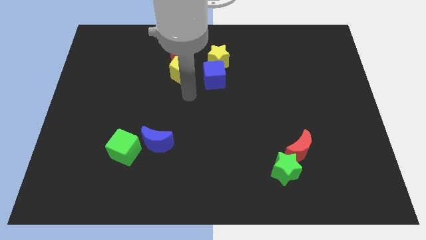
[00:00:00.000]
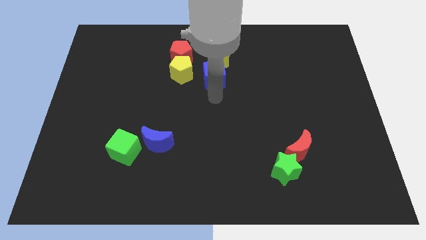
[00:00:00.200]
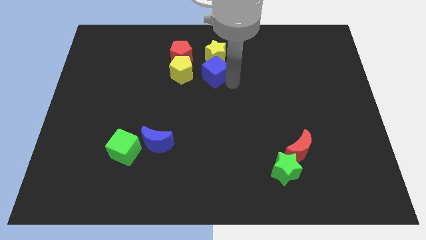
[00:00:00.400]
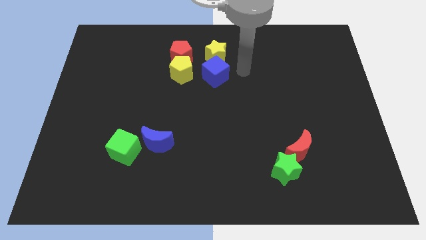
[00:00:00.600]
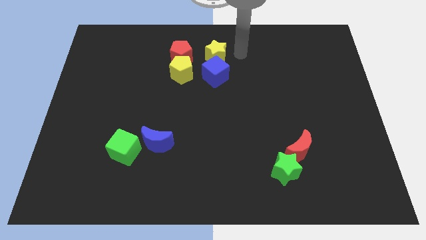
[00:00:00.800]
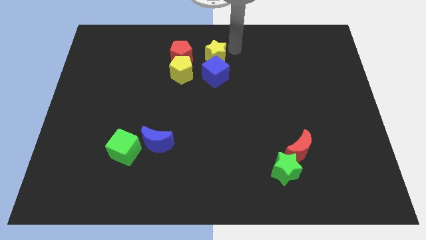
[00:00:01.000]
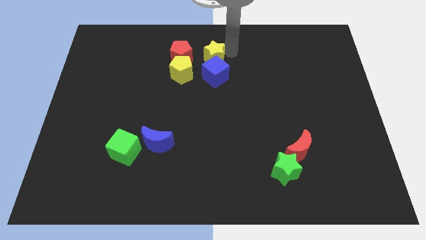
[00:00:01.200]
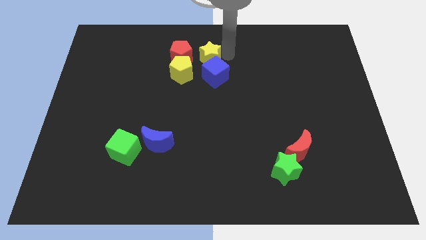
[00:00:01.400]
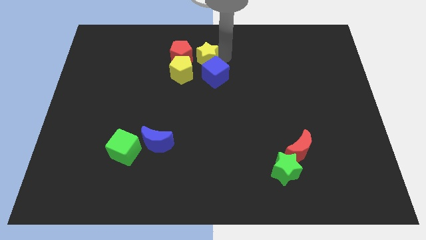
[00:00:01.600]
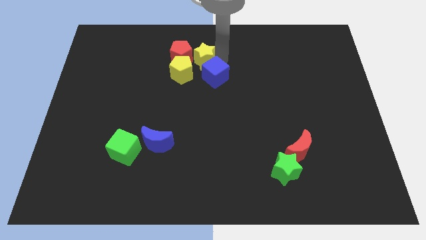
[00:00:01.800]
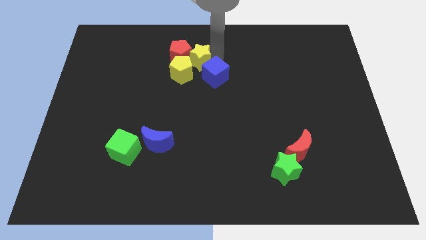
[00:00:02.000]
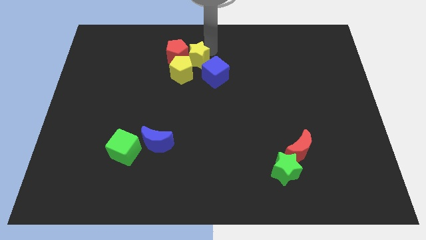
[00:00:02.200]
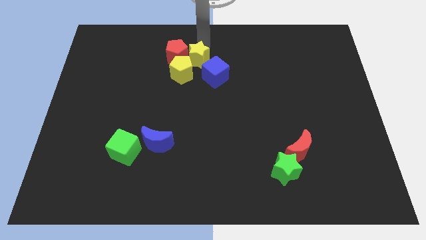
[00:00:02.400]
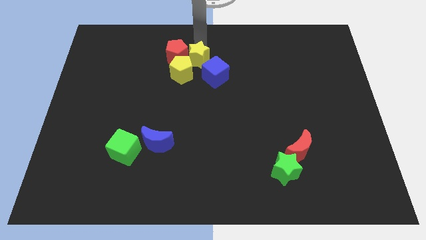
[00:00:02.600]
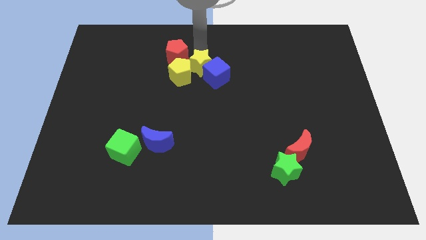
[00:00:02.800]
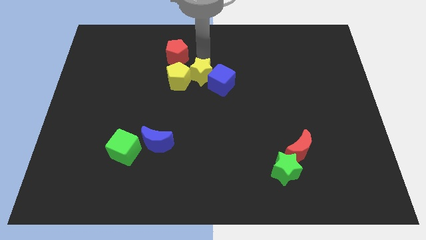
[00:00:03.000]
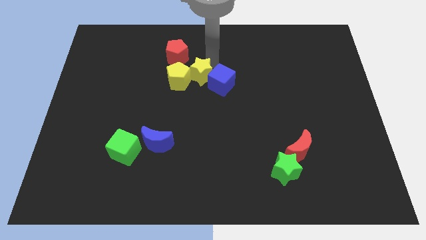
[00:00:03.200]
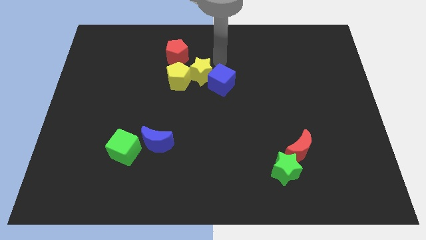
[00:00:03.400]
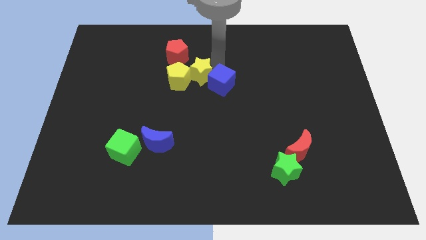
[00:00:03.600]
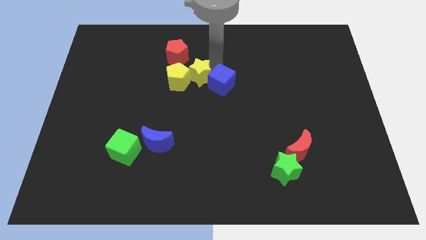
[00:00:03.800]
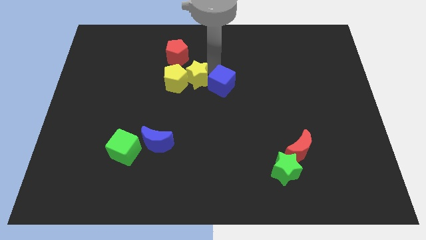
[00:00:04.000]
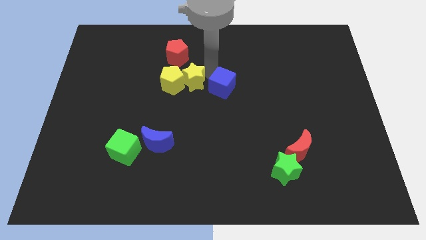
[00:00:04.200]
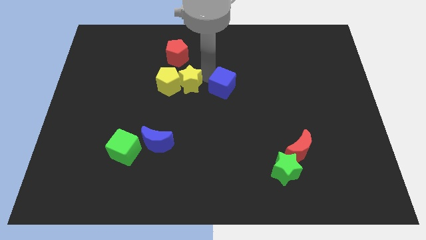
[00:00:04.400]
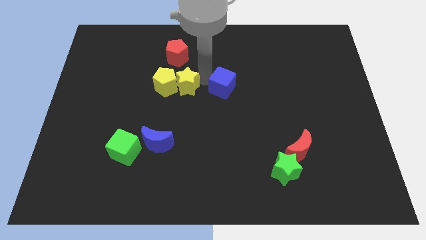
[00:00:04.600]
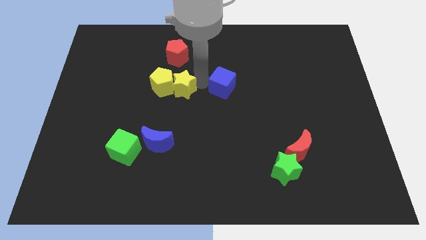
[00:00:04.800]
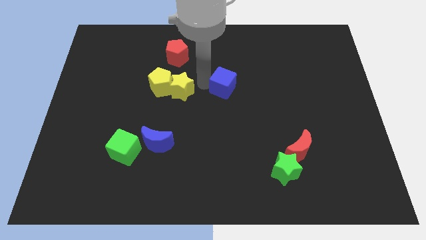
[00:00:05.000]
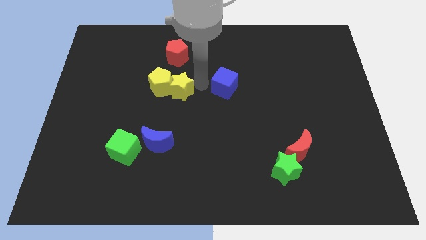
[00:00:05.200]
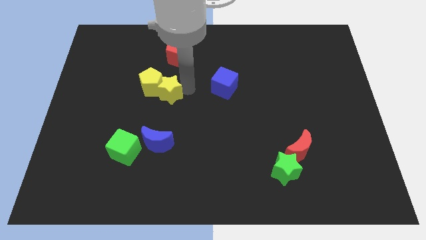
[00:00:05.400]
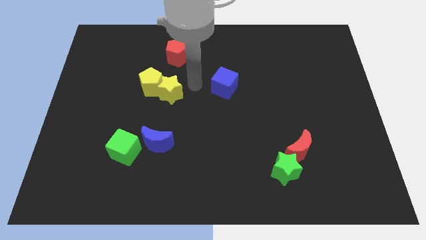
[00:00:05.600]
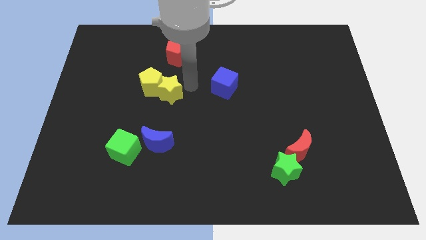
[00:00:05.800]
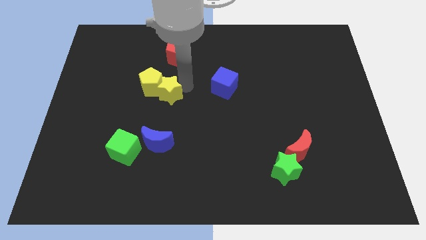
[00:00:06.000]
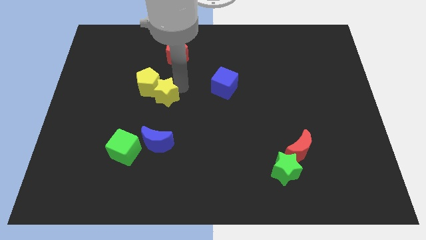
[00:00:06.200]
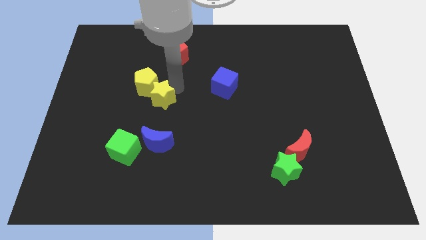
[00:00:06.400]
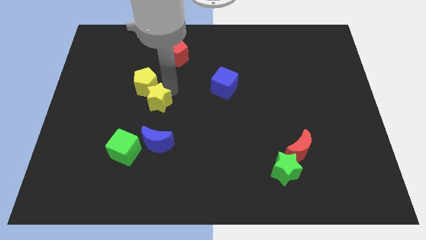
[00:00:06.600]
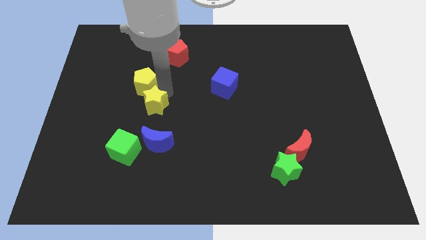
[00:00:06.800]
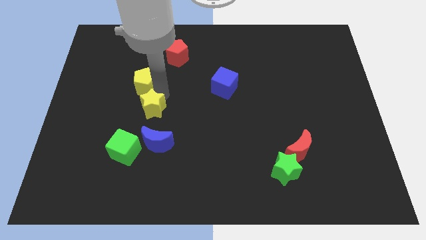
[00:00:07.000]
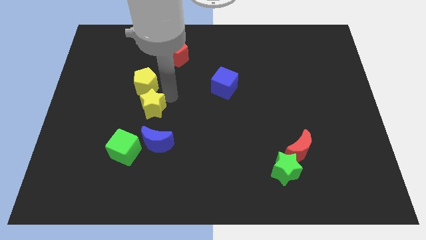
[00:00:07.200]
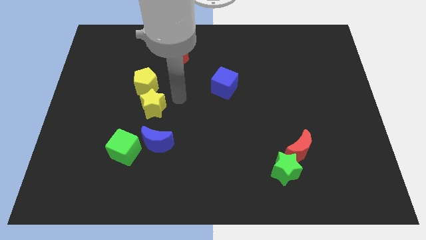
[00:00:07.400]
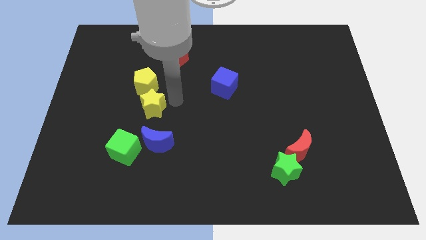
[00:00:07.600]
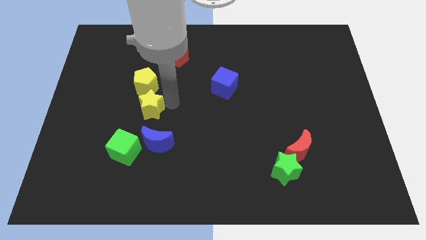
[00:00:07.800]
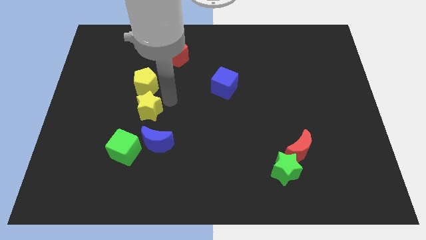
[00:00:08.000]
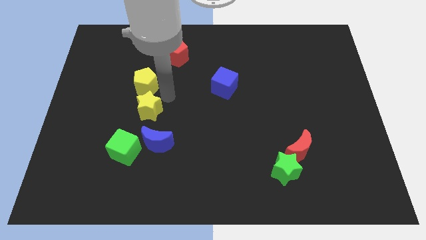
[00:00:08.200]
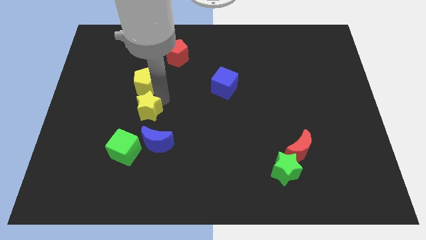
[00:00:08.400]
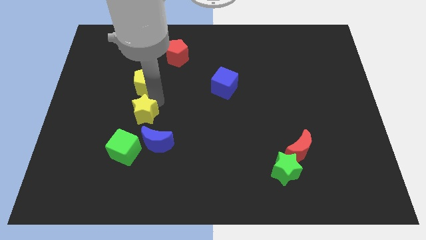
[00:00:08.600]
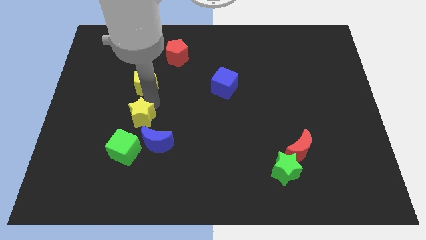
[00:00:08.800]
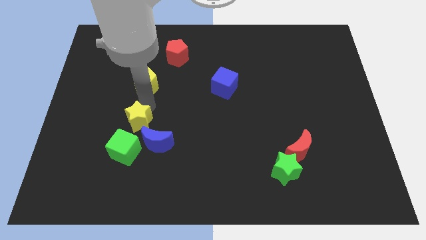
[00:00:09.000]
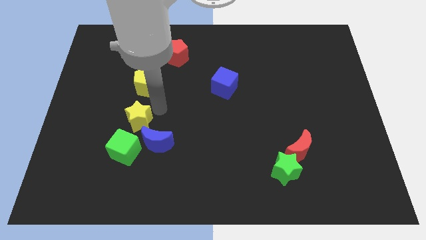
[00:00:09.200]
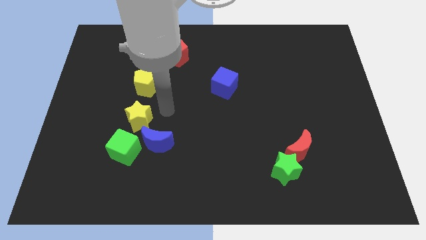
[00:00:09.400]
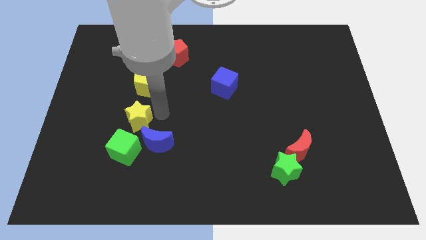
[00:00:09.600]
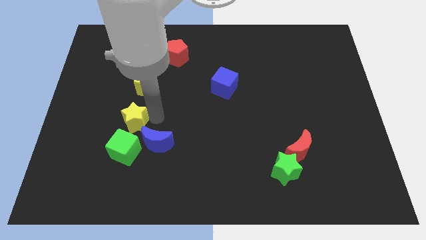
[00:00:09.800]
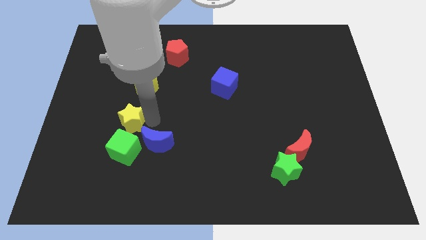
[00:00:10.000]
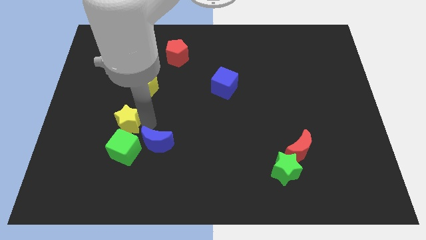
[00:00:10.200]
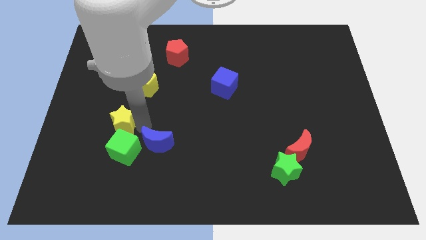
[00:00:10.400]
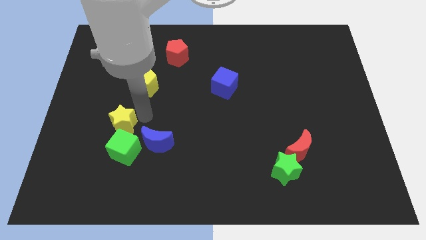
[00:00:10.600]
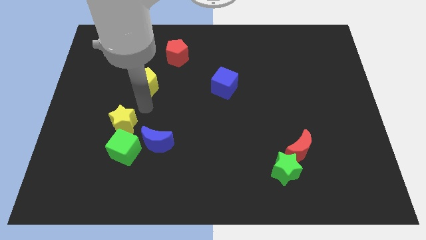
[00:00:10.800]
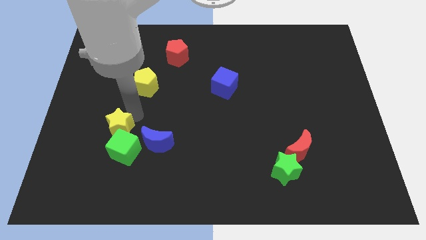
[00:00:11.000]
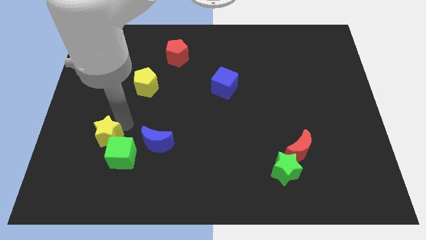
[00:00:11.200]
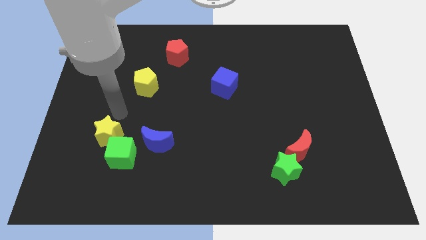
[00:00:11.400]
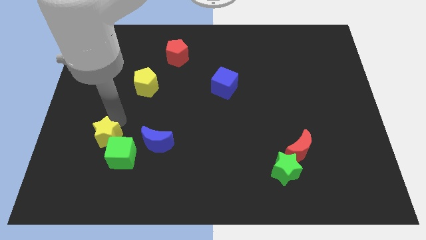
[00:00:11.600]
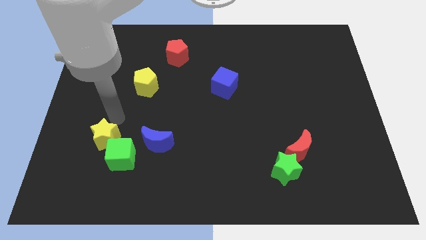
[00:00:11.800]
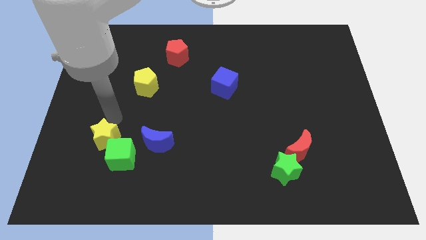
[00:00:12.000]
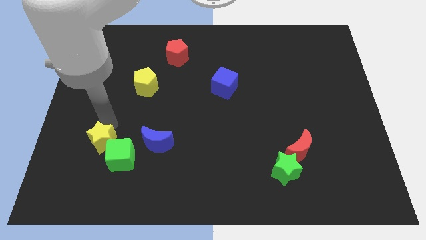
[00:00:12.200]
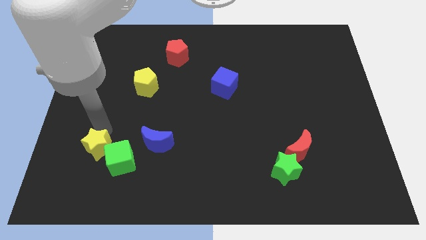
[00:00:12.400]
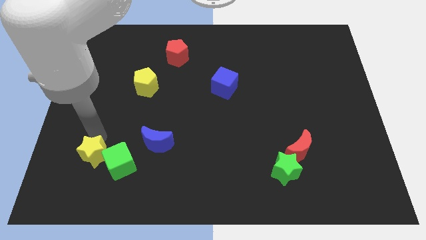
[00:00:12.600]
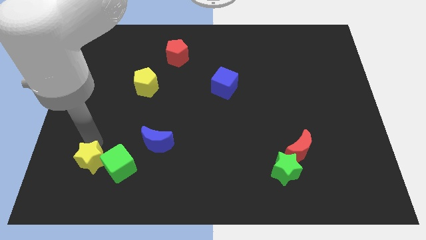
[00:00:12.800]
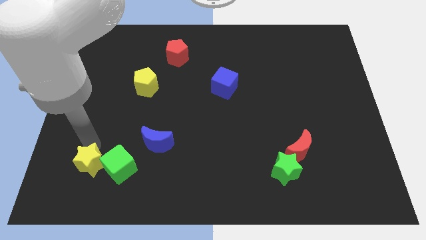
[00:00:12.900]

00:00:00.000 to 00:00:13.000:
move the yellow star to the bottom left of the green cube

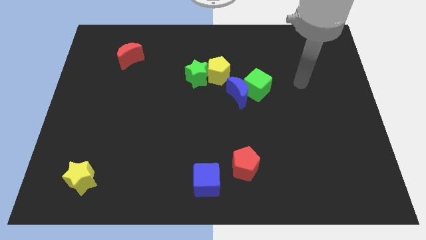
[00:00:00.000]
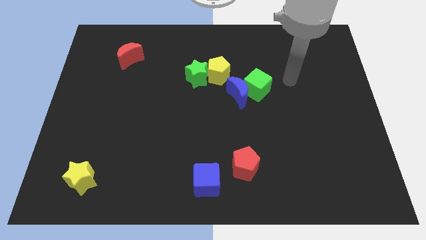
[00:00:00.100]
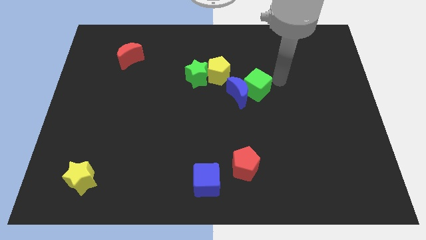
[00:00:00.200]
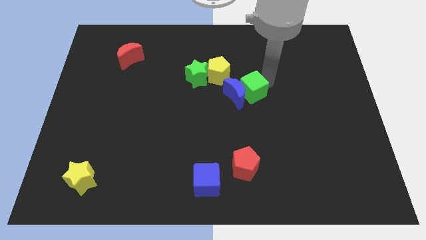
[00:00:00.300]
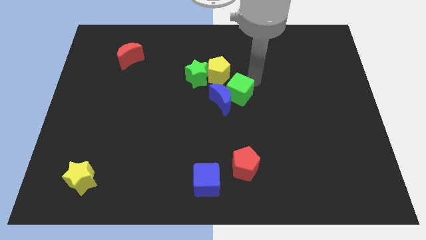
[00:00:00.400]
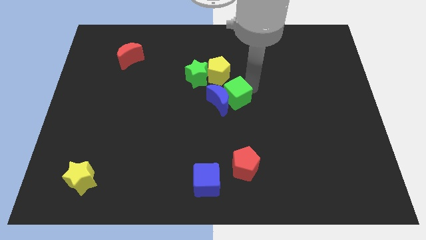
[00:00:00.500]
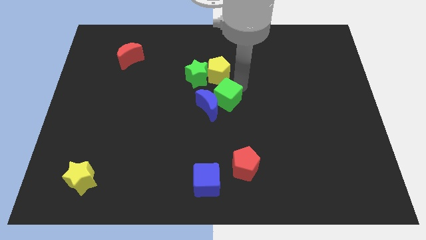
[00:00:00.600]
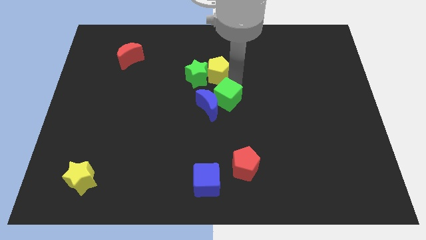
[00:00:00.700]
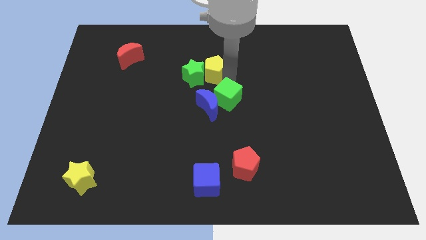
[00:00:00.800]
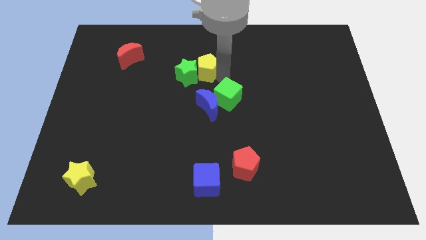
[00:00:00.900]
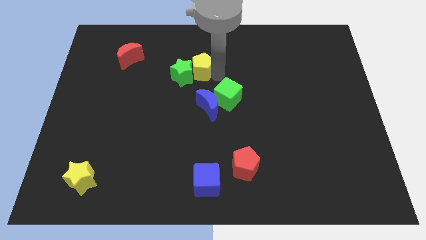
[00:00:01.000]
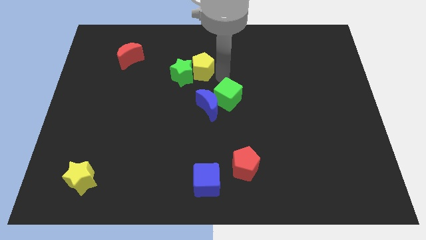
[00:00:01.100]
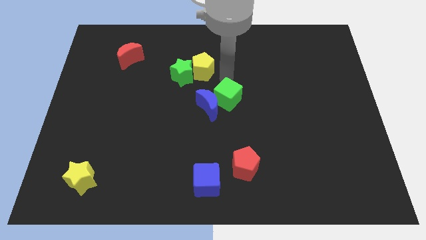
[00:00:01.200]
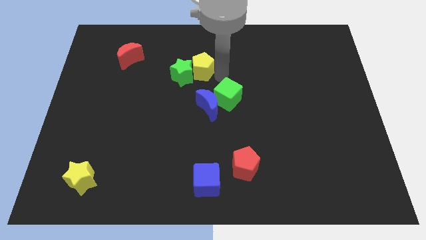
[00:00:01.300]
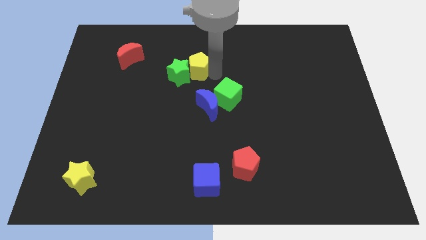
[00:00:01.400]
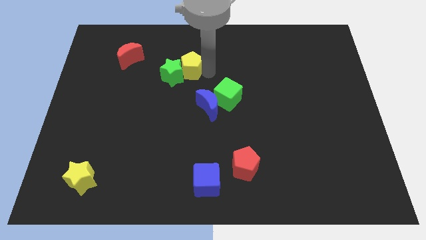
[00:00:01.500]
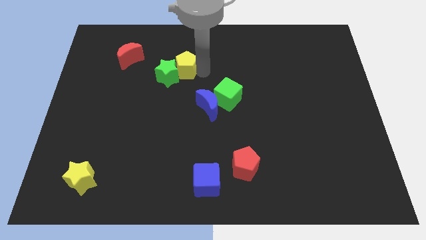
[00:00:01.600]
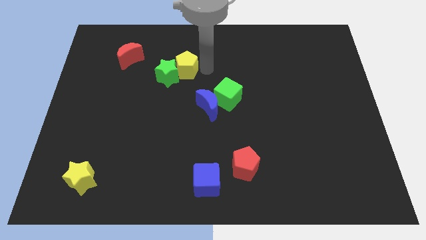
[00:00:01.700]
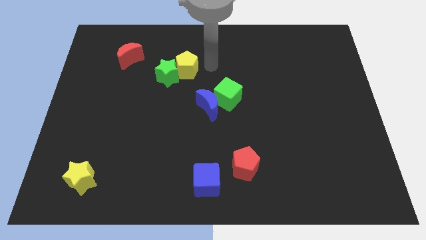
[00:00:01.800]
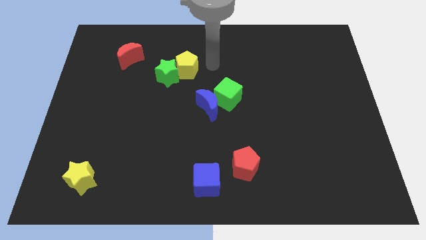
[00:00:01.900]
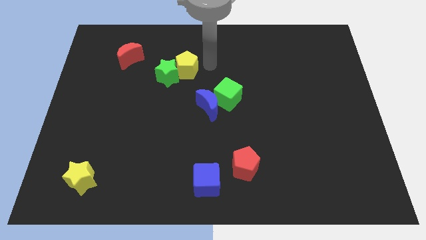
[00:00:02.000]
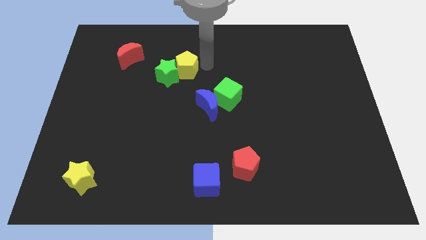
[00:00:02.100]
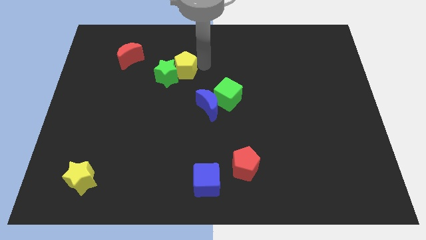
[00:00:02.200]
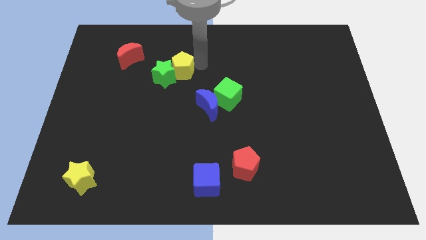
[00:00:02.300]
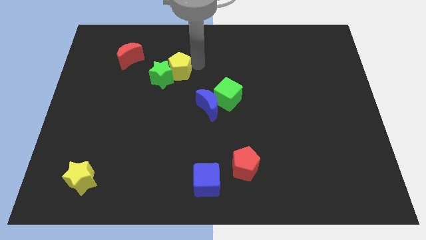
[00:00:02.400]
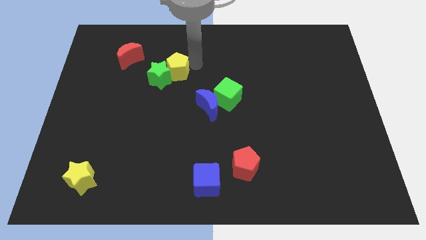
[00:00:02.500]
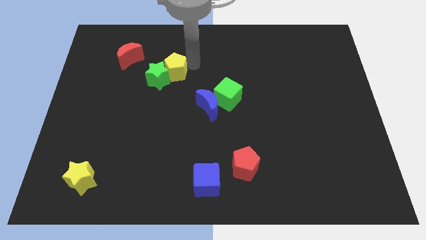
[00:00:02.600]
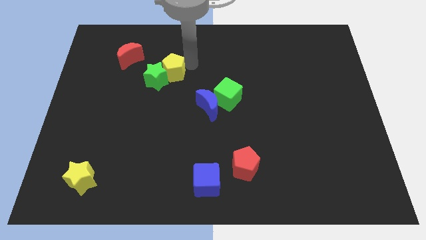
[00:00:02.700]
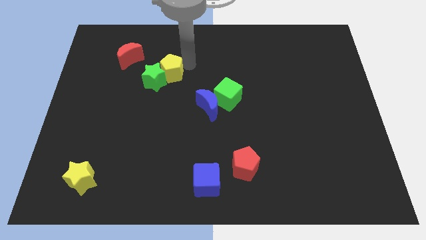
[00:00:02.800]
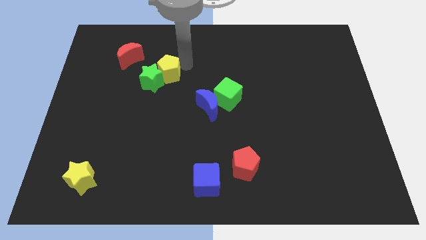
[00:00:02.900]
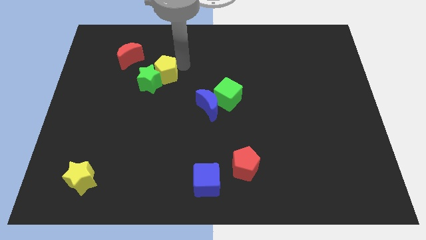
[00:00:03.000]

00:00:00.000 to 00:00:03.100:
push the yellow pentagon diagonally down and to the right of the red moon
